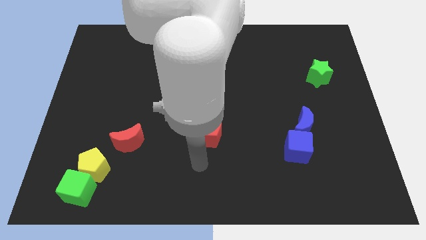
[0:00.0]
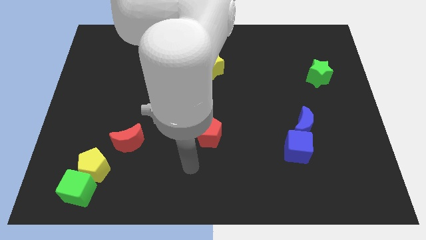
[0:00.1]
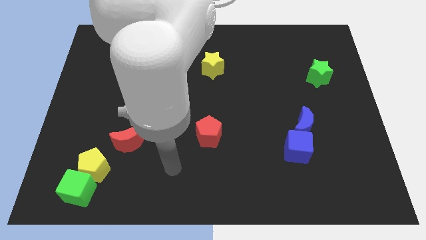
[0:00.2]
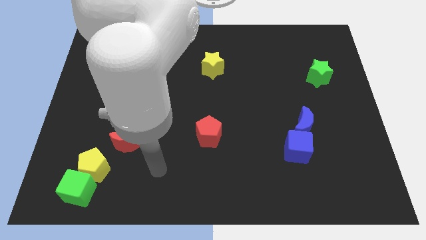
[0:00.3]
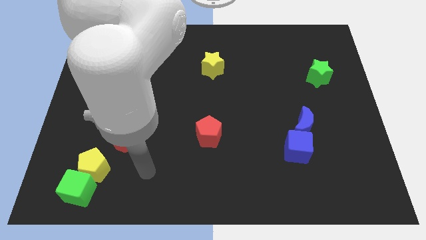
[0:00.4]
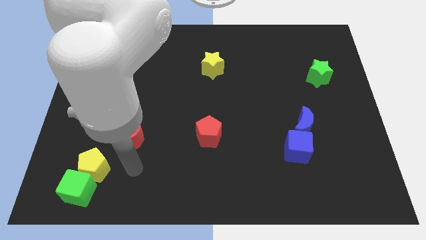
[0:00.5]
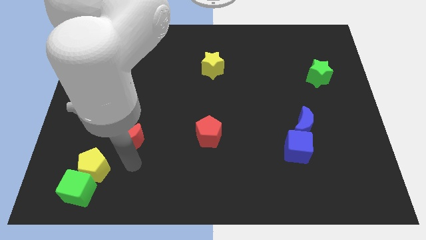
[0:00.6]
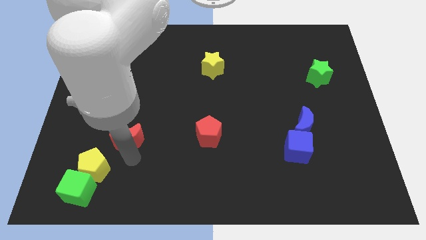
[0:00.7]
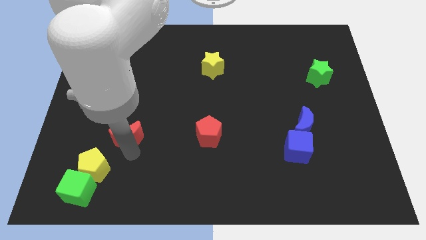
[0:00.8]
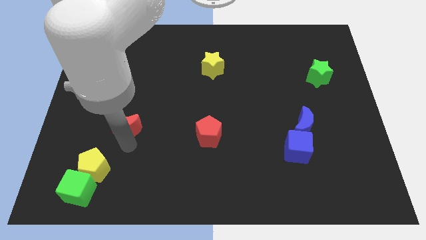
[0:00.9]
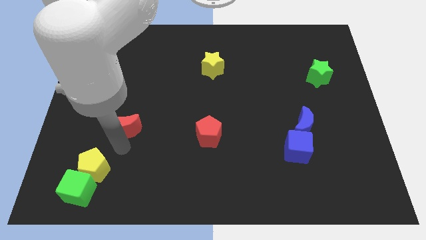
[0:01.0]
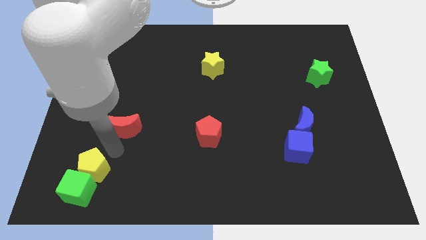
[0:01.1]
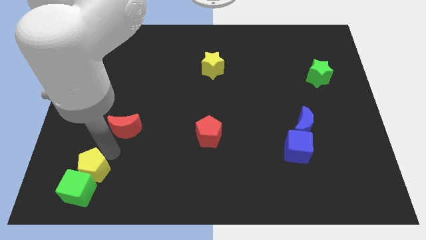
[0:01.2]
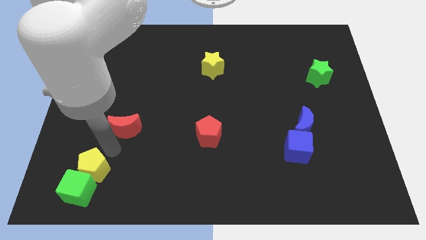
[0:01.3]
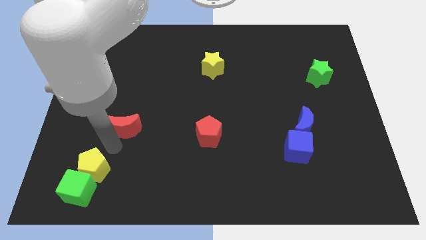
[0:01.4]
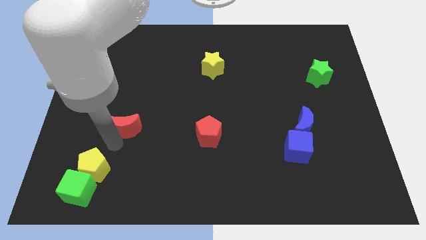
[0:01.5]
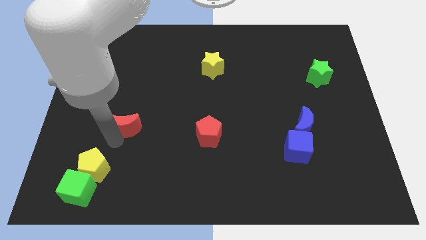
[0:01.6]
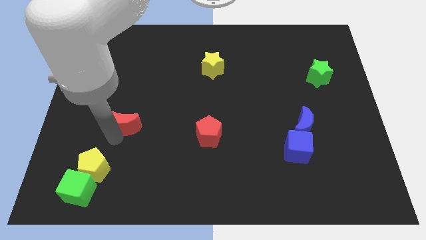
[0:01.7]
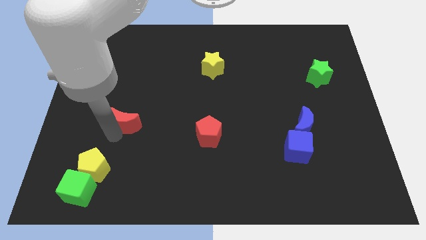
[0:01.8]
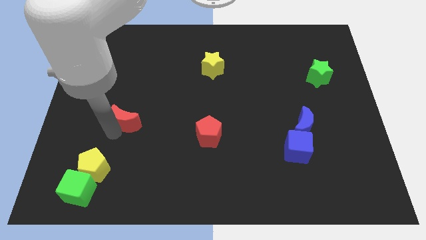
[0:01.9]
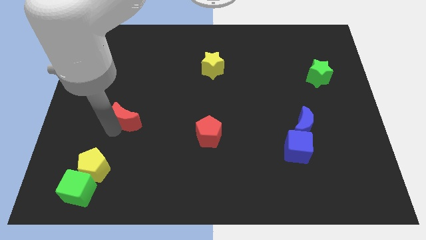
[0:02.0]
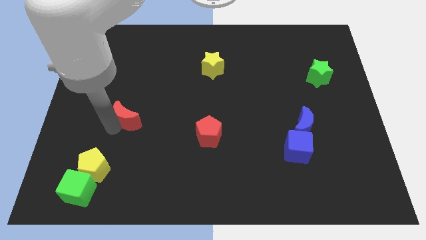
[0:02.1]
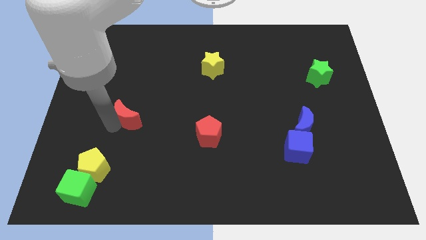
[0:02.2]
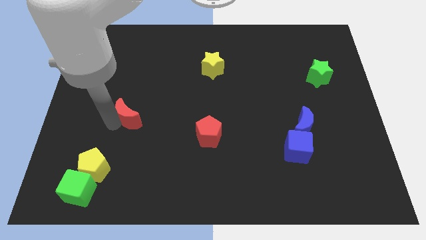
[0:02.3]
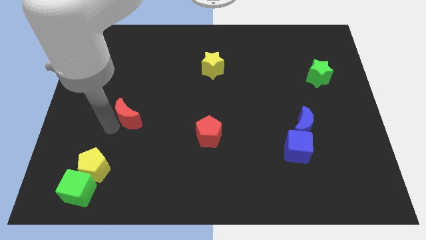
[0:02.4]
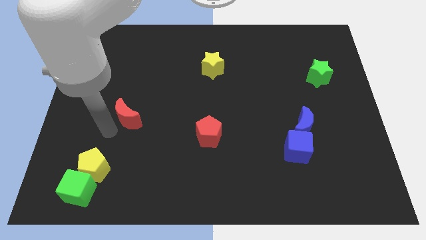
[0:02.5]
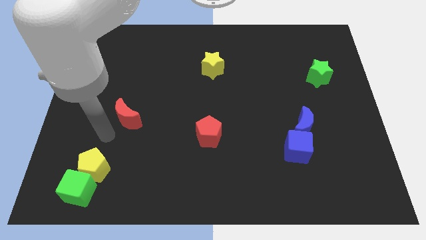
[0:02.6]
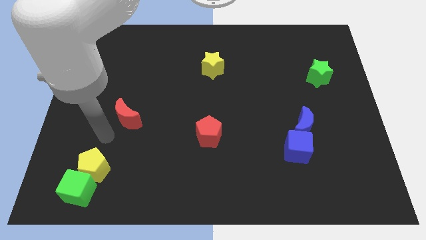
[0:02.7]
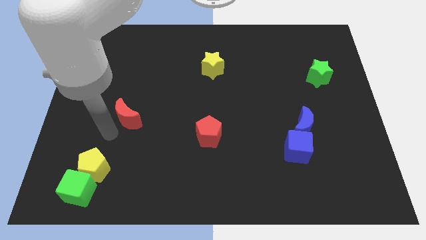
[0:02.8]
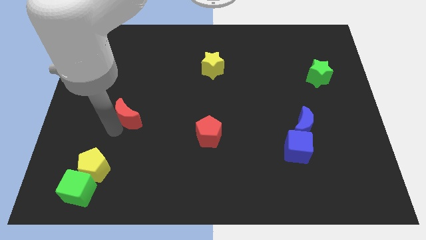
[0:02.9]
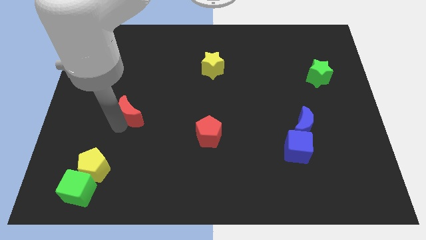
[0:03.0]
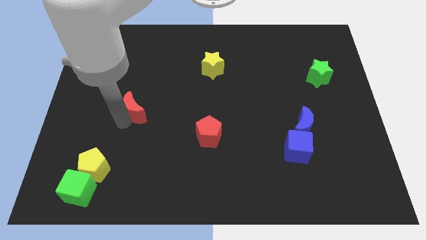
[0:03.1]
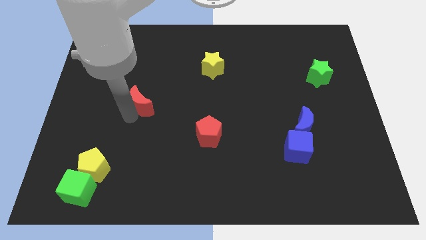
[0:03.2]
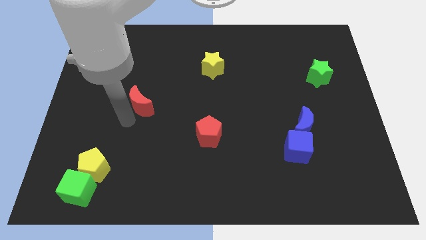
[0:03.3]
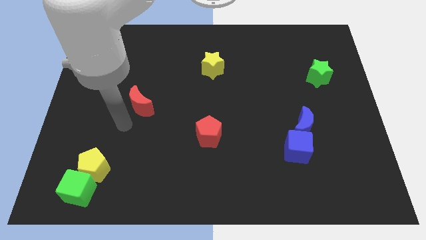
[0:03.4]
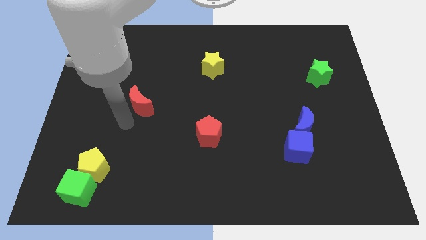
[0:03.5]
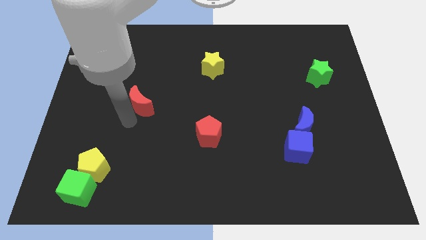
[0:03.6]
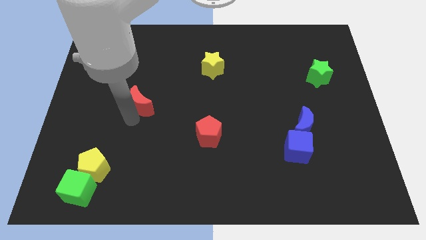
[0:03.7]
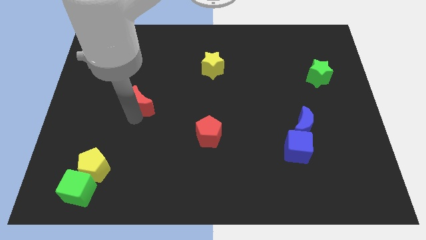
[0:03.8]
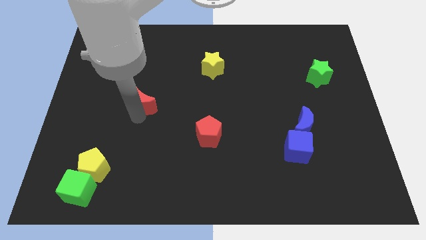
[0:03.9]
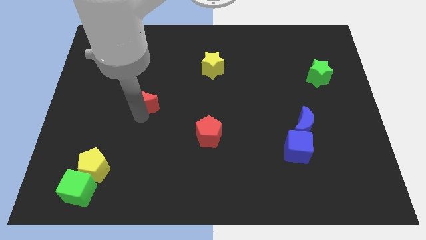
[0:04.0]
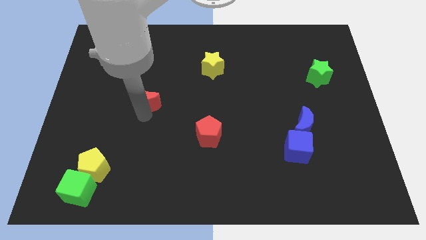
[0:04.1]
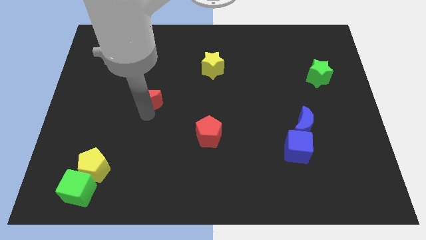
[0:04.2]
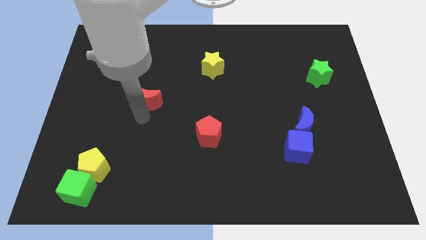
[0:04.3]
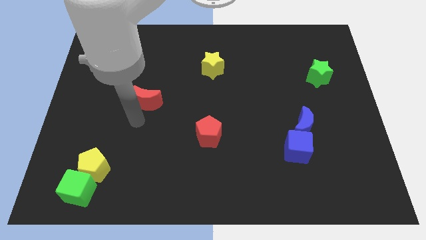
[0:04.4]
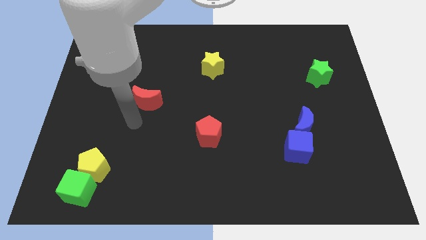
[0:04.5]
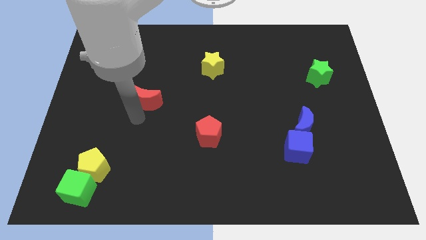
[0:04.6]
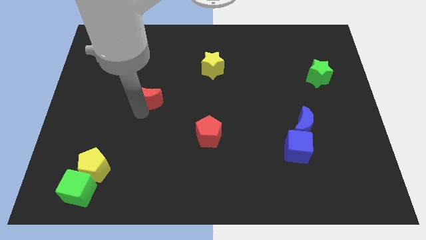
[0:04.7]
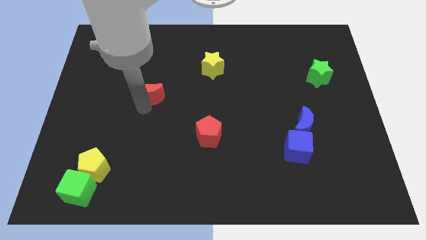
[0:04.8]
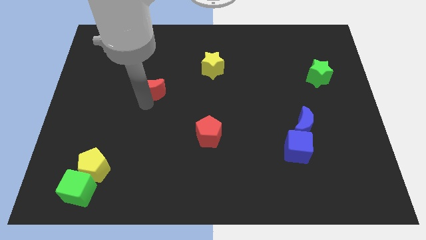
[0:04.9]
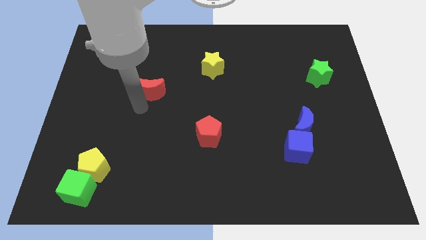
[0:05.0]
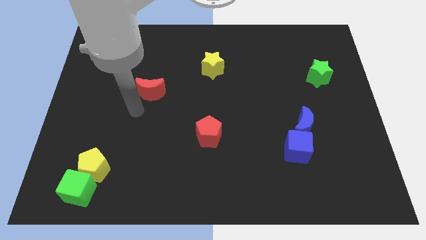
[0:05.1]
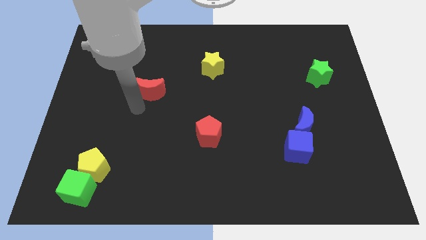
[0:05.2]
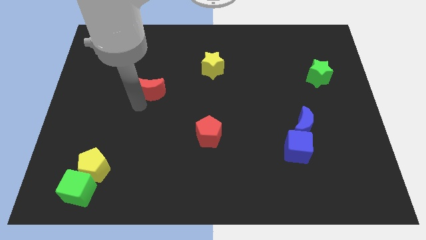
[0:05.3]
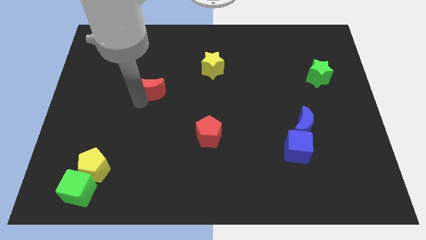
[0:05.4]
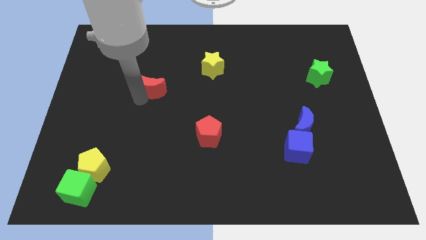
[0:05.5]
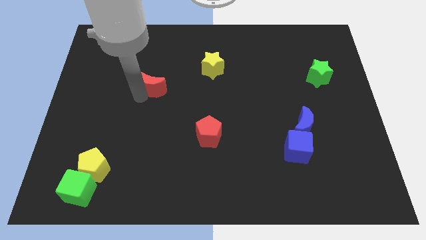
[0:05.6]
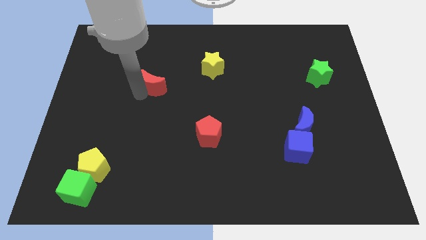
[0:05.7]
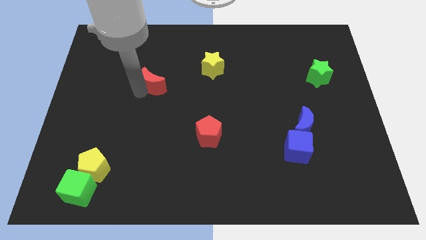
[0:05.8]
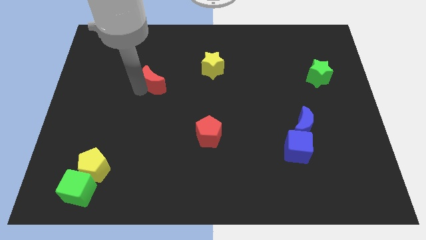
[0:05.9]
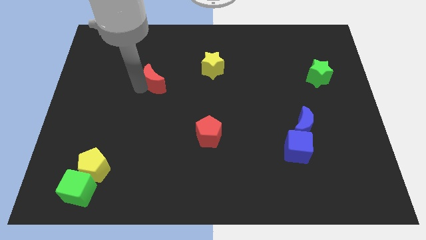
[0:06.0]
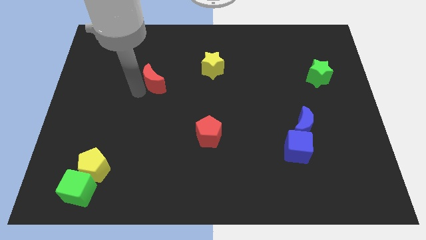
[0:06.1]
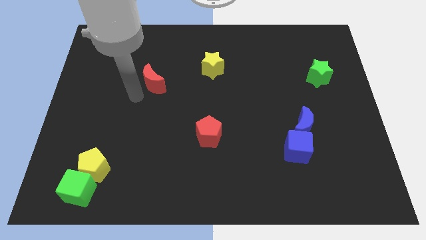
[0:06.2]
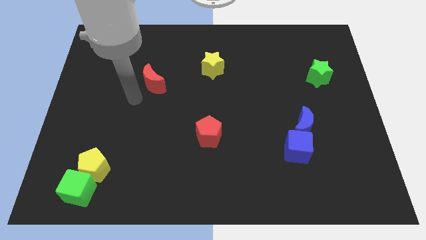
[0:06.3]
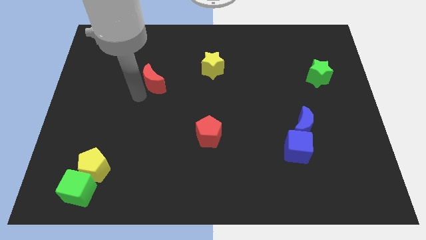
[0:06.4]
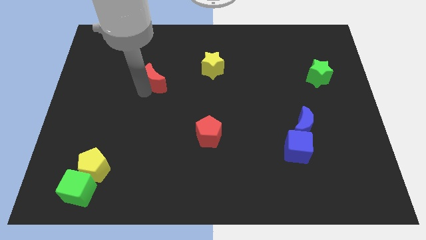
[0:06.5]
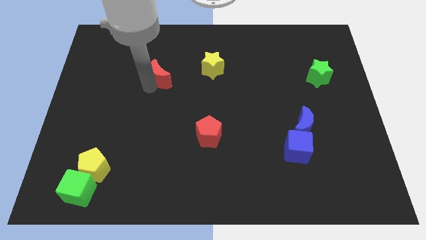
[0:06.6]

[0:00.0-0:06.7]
move the red moon just left of the yellow star

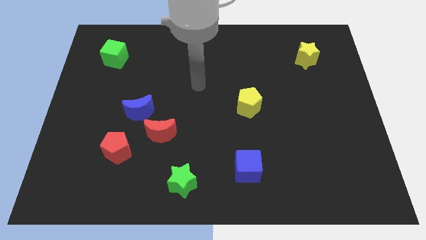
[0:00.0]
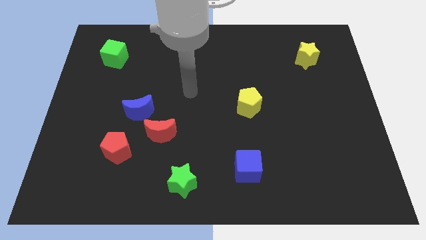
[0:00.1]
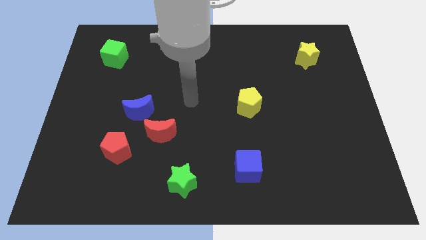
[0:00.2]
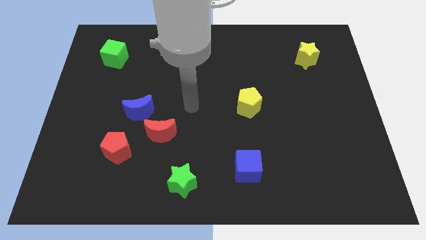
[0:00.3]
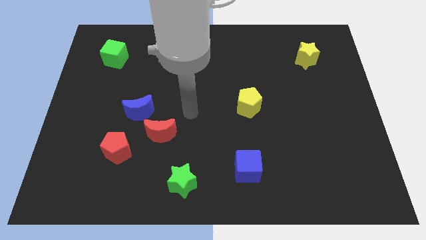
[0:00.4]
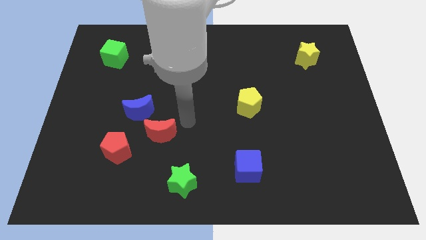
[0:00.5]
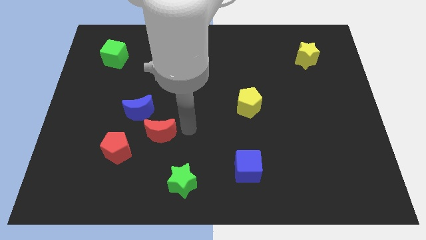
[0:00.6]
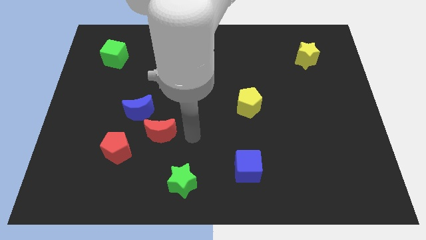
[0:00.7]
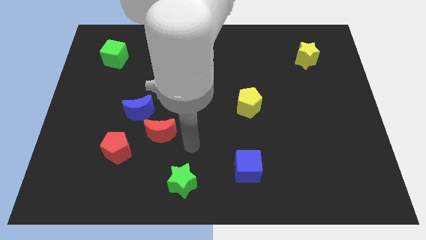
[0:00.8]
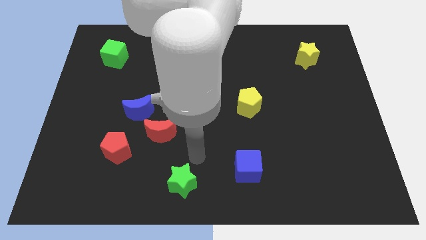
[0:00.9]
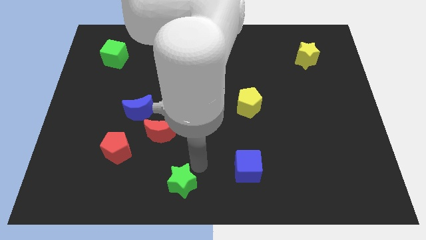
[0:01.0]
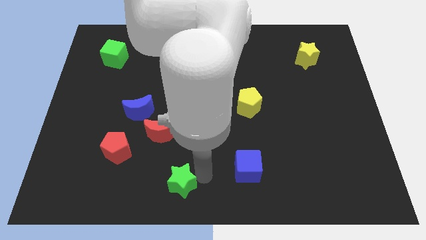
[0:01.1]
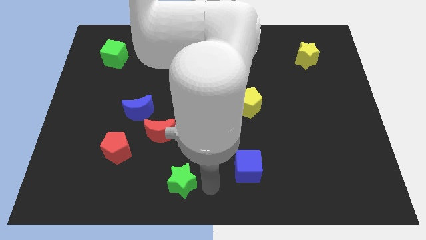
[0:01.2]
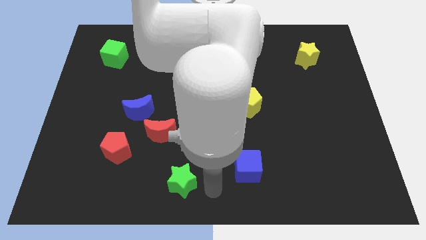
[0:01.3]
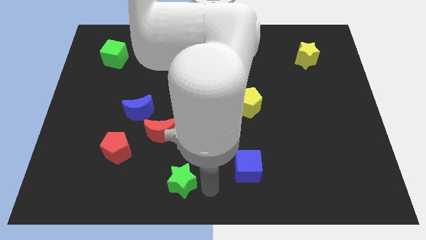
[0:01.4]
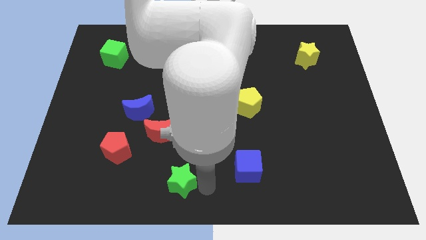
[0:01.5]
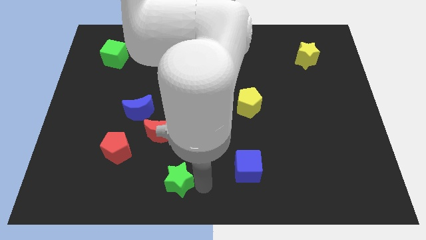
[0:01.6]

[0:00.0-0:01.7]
slide the green star below the red moon
